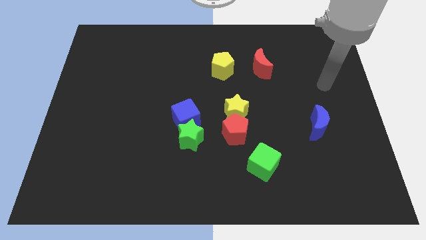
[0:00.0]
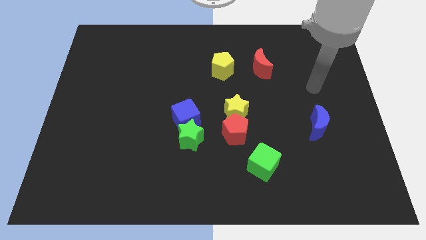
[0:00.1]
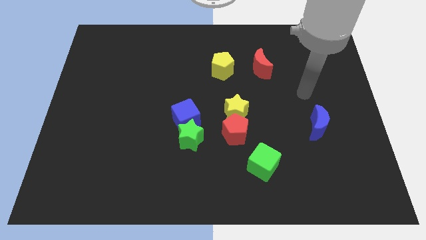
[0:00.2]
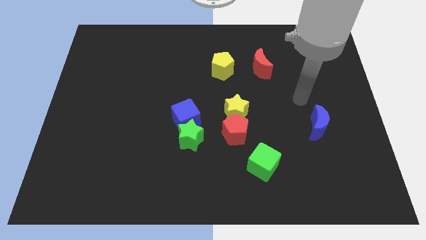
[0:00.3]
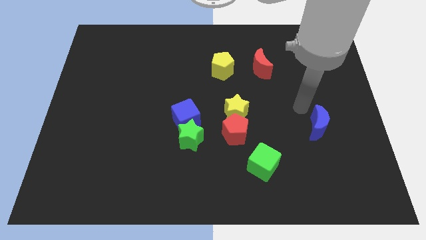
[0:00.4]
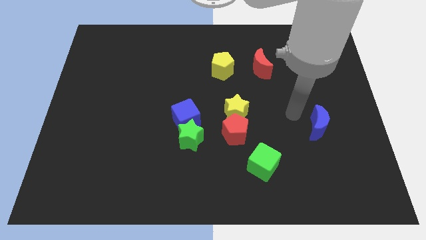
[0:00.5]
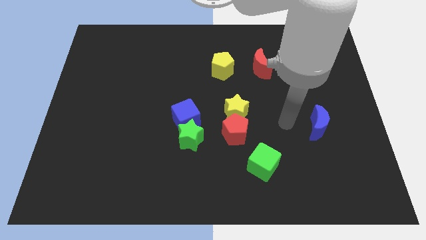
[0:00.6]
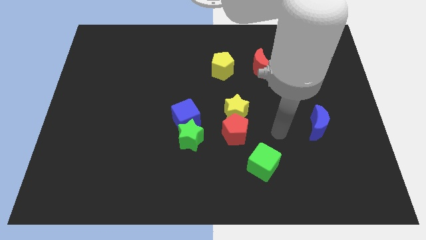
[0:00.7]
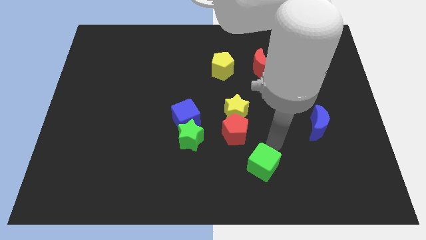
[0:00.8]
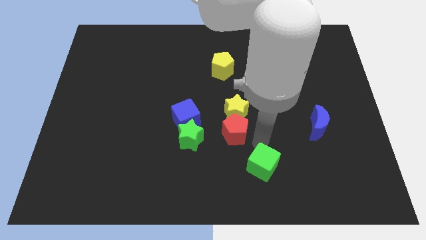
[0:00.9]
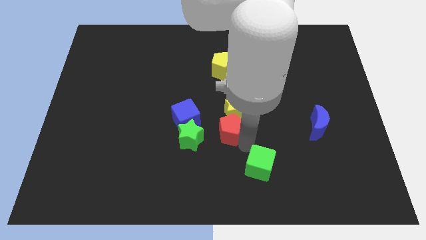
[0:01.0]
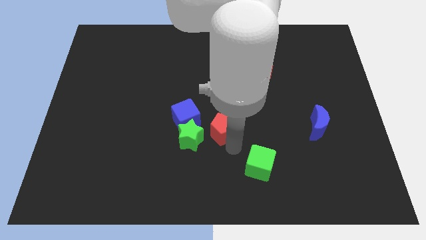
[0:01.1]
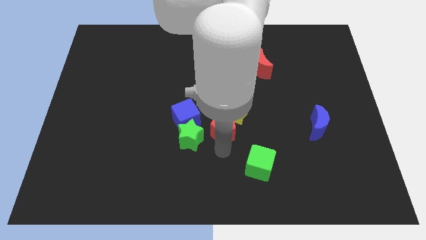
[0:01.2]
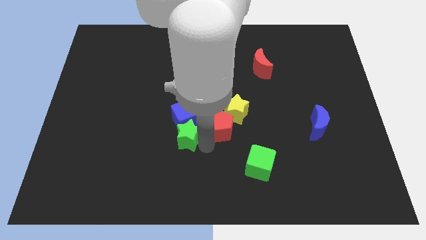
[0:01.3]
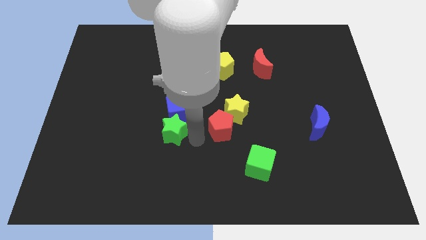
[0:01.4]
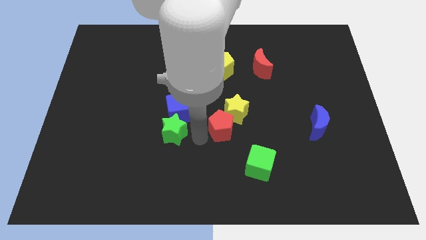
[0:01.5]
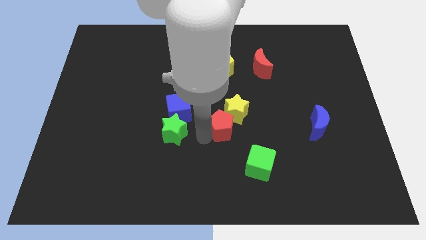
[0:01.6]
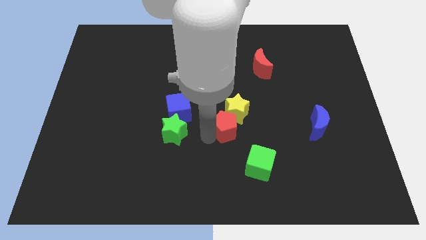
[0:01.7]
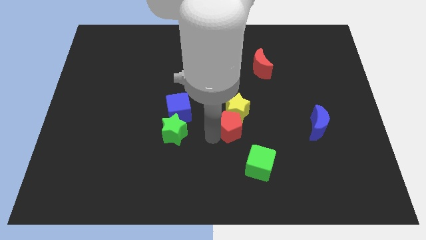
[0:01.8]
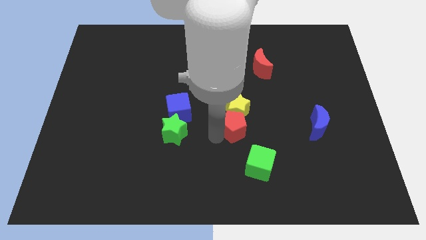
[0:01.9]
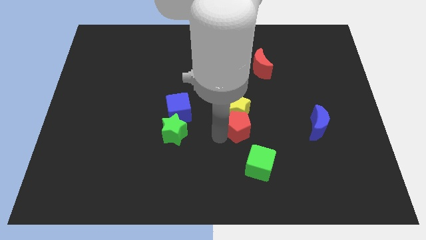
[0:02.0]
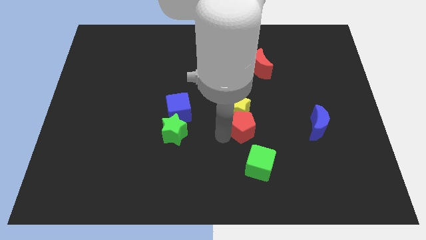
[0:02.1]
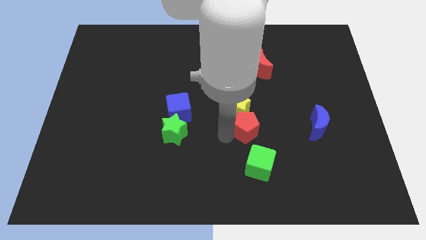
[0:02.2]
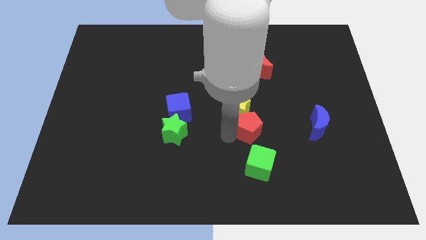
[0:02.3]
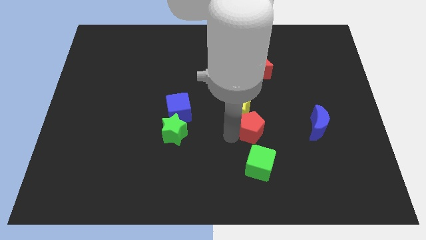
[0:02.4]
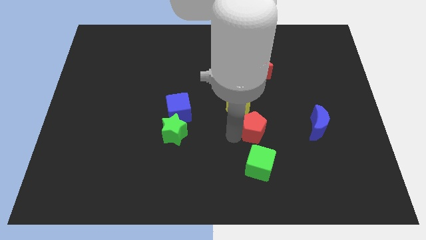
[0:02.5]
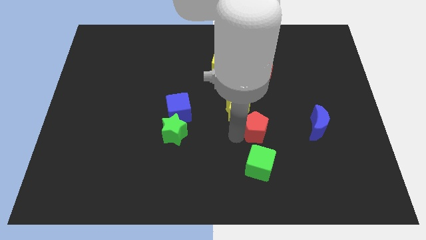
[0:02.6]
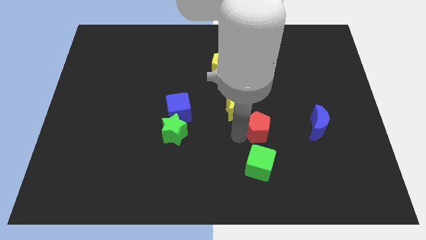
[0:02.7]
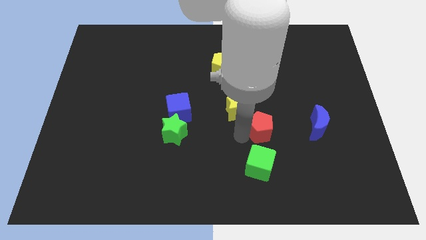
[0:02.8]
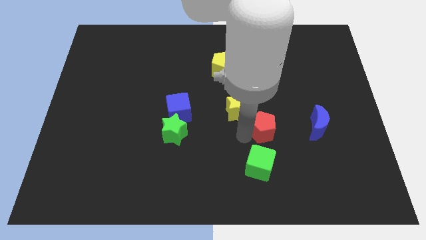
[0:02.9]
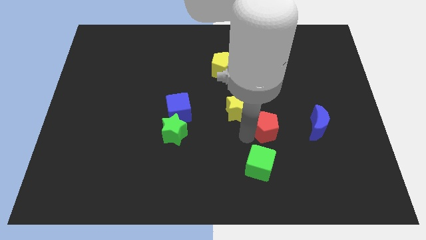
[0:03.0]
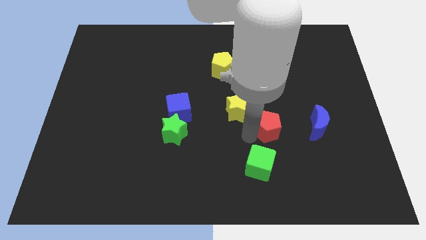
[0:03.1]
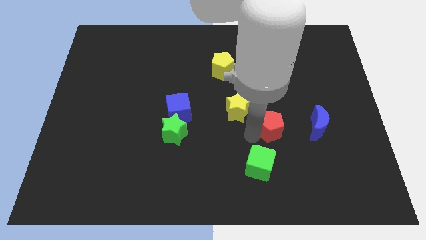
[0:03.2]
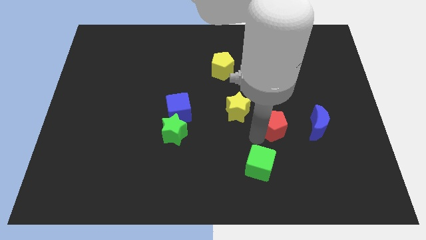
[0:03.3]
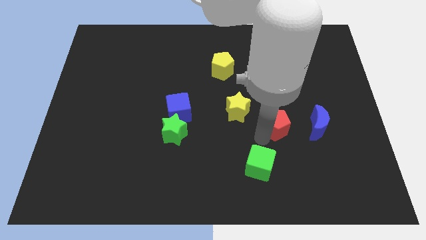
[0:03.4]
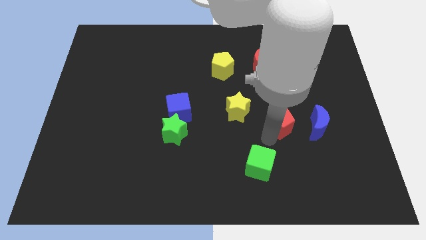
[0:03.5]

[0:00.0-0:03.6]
slightly push the red pentagon diagonally upwards and to the right

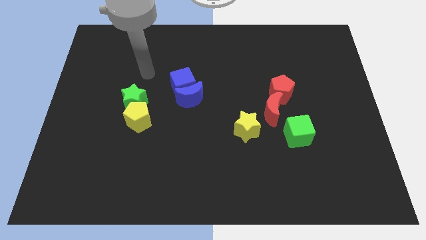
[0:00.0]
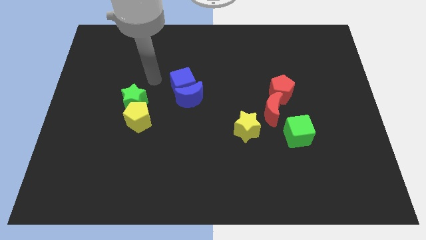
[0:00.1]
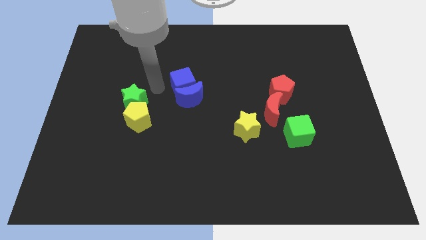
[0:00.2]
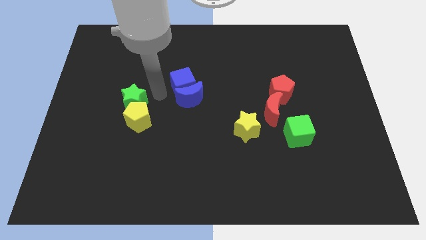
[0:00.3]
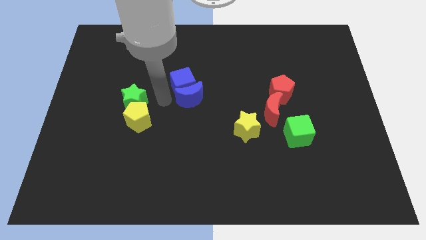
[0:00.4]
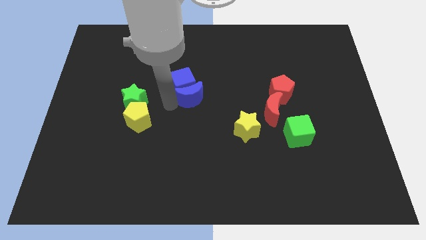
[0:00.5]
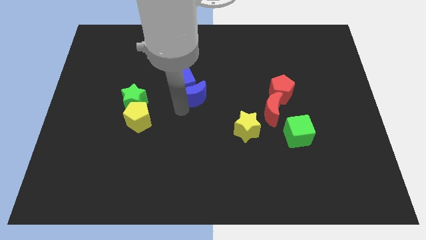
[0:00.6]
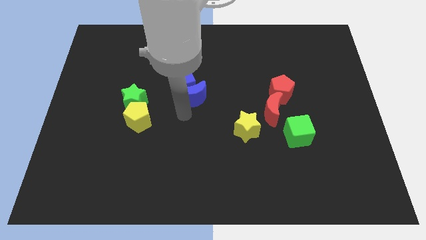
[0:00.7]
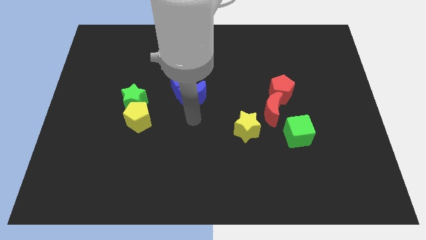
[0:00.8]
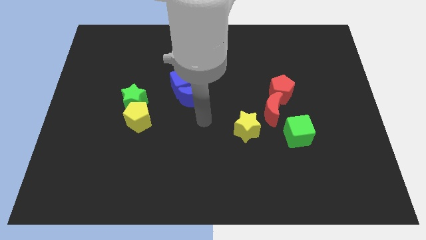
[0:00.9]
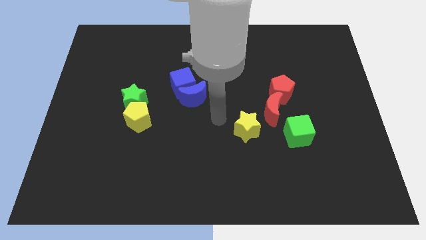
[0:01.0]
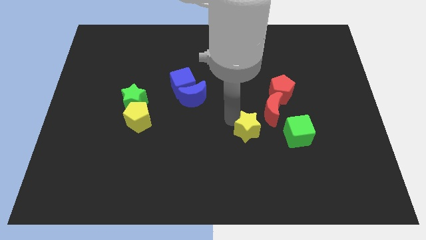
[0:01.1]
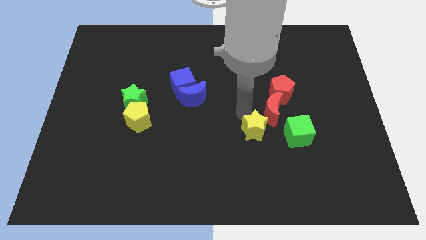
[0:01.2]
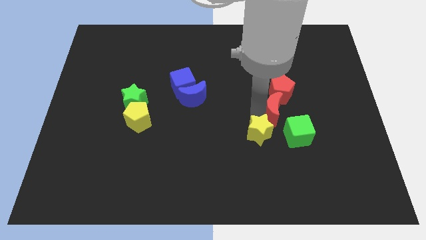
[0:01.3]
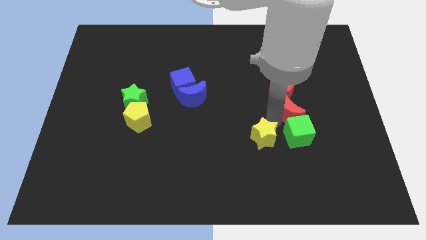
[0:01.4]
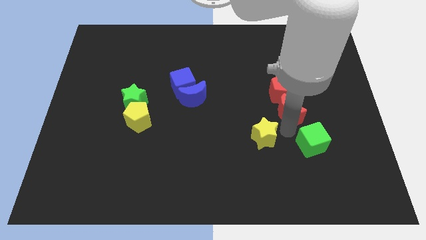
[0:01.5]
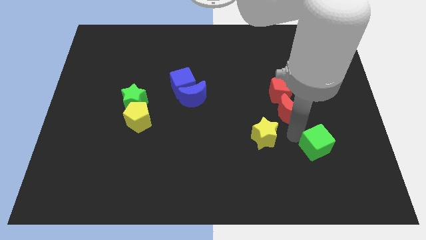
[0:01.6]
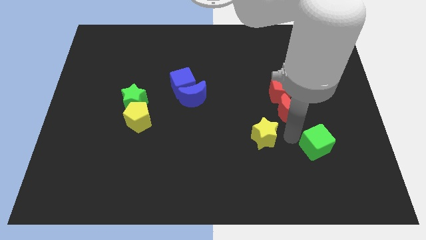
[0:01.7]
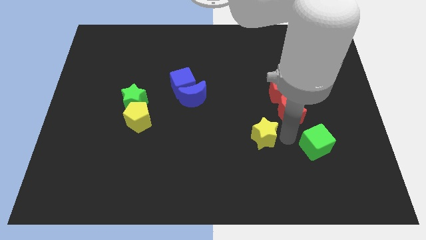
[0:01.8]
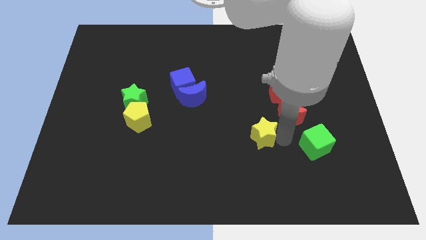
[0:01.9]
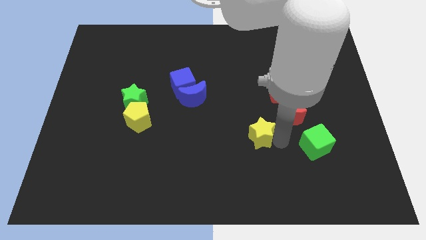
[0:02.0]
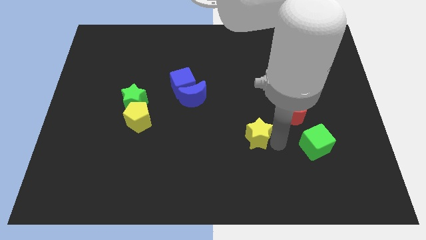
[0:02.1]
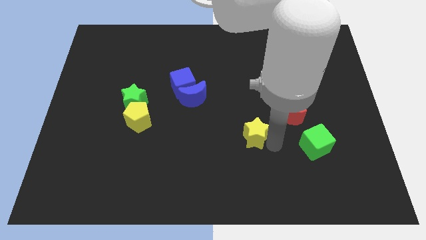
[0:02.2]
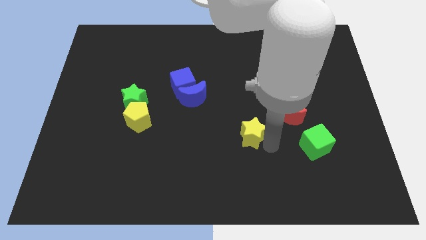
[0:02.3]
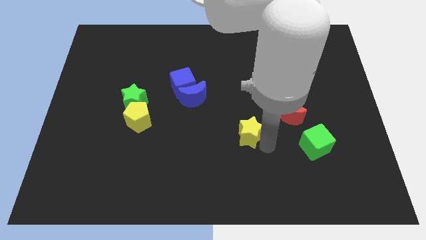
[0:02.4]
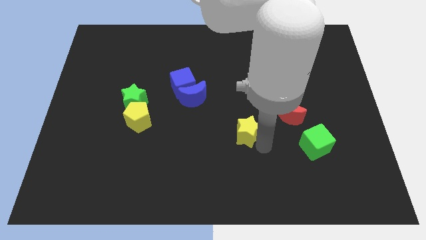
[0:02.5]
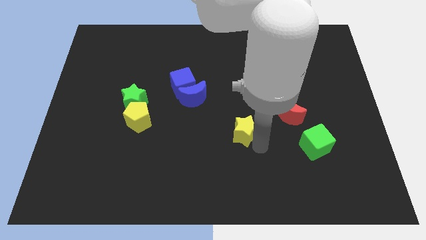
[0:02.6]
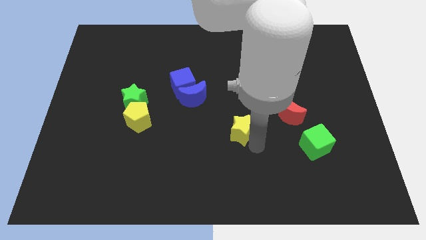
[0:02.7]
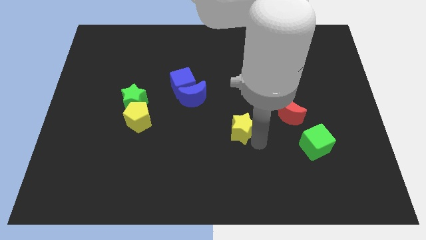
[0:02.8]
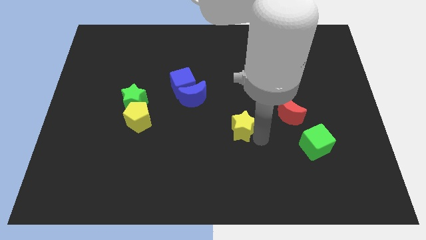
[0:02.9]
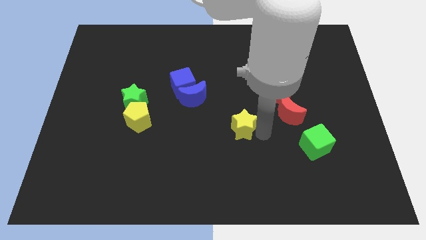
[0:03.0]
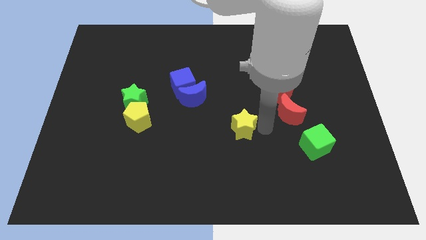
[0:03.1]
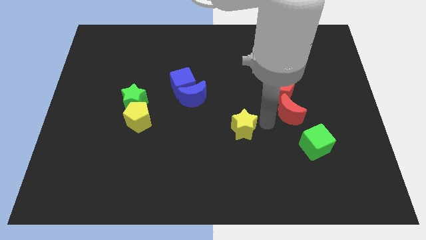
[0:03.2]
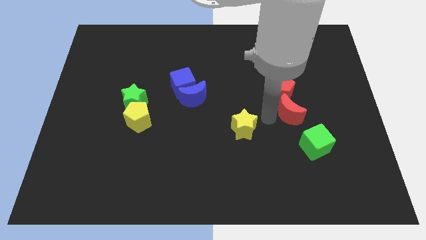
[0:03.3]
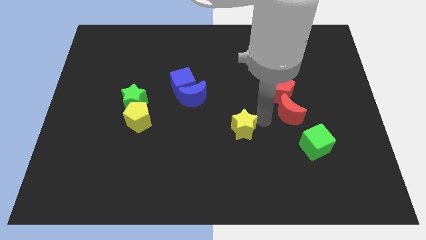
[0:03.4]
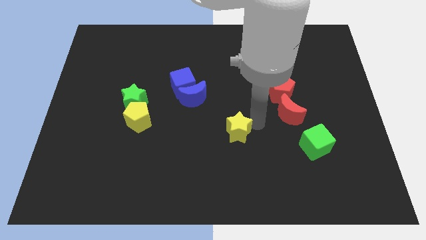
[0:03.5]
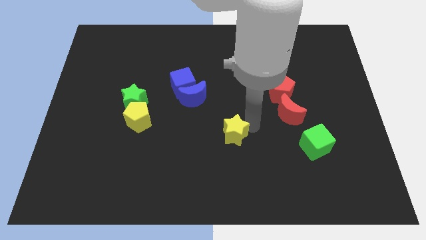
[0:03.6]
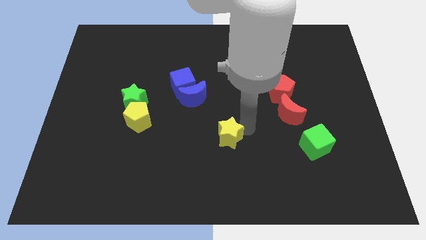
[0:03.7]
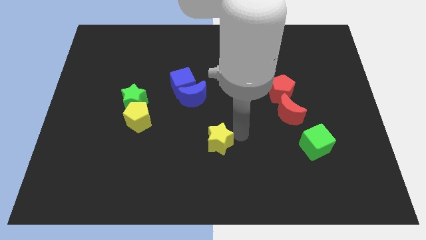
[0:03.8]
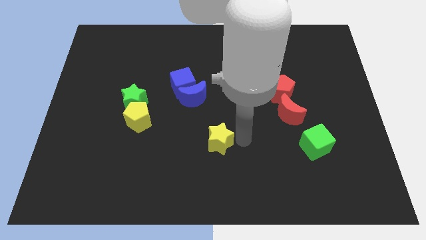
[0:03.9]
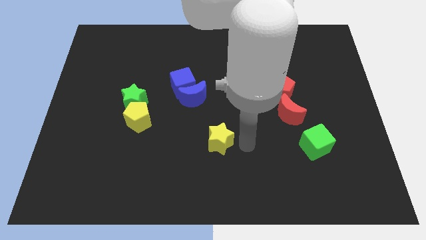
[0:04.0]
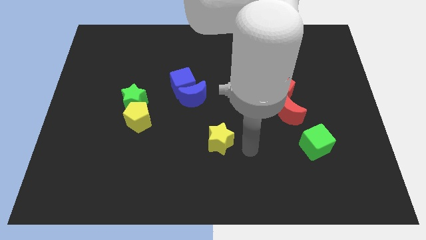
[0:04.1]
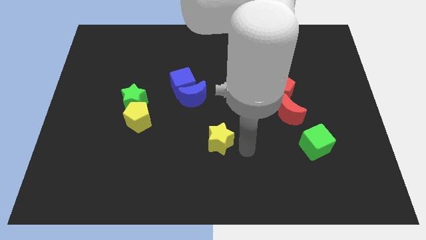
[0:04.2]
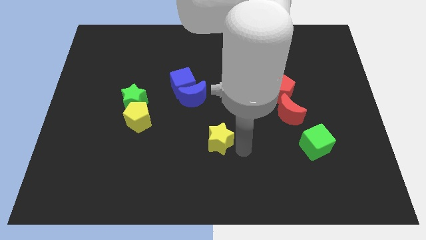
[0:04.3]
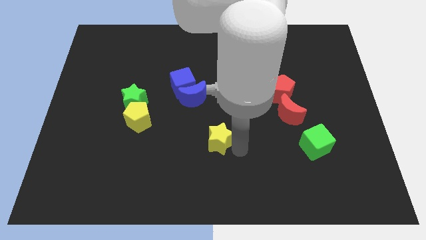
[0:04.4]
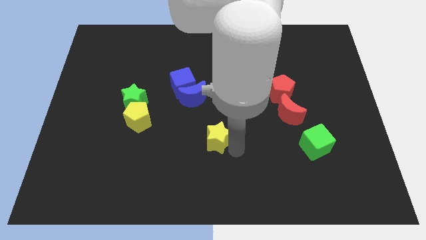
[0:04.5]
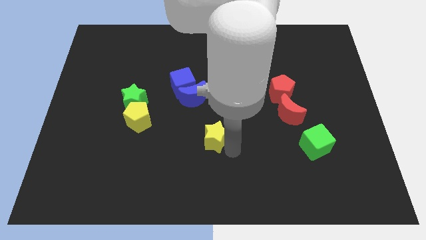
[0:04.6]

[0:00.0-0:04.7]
push the yellow star to the left a little bit
